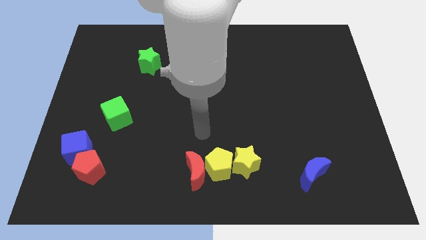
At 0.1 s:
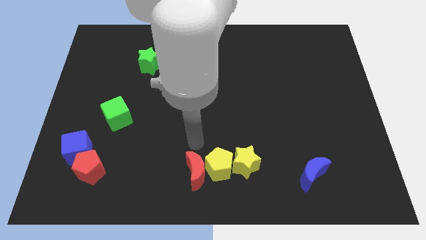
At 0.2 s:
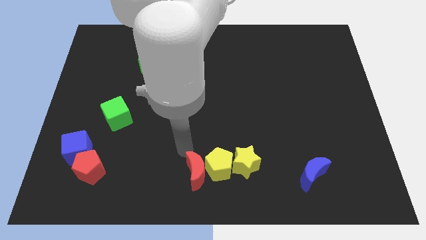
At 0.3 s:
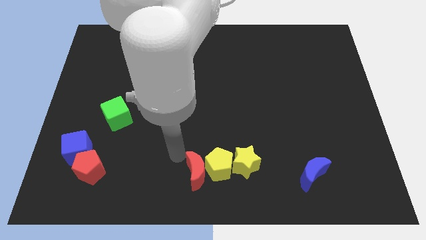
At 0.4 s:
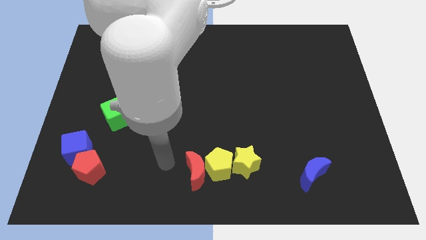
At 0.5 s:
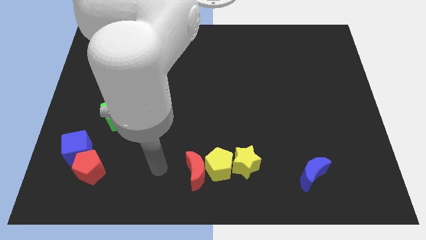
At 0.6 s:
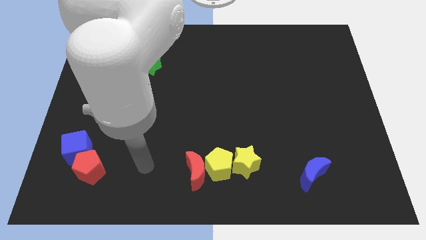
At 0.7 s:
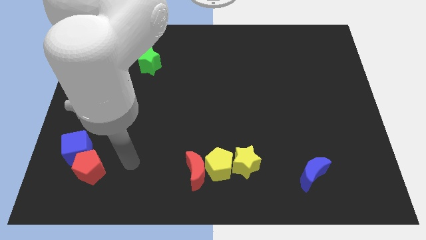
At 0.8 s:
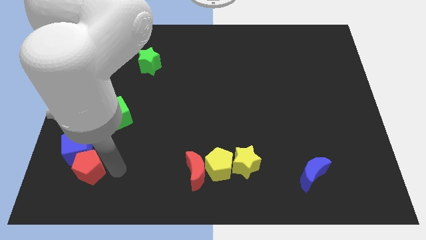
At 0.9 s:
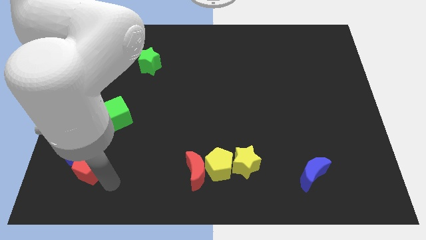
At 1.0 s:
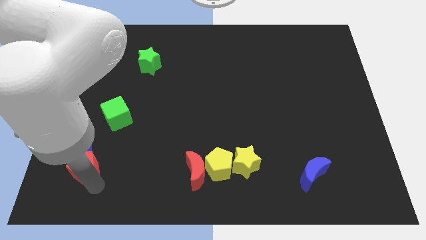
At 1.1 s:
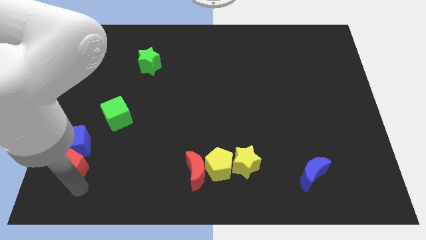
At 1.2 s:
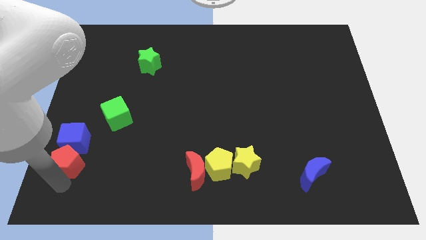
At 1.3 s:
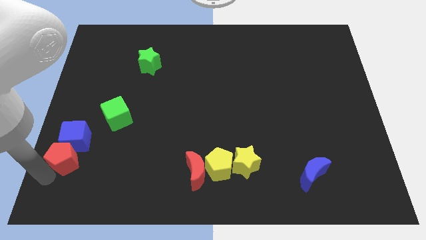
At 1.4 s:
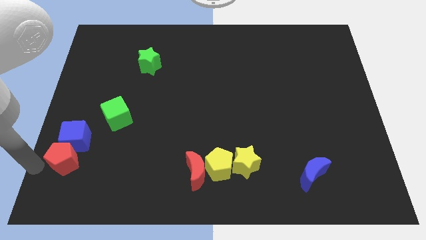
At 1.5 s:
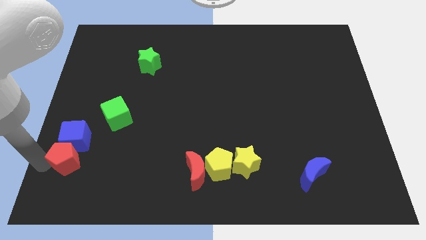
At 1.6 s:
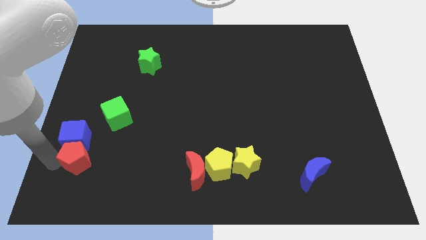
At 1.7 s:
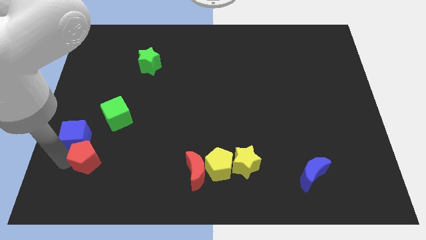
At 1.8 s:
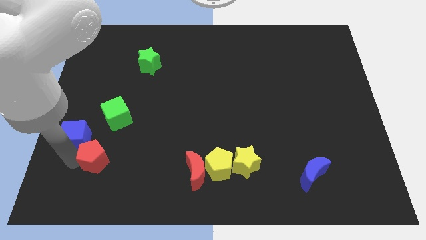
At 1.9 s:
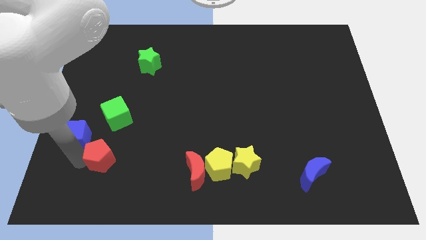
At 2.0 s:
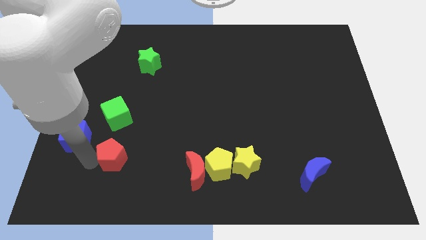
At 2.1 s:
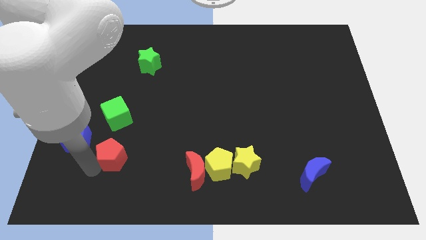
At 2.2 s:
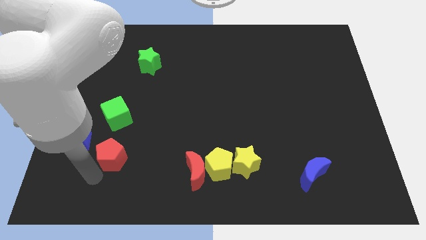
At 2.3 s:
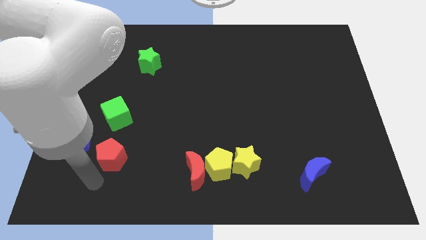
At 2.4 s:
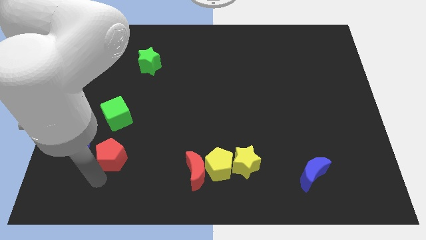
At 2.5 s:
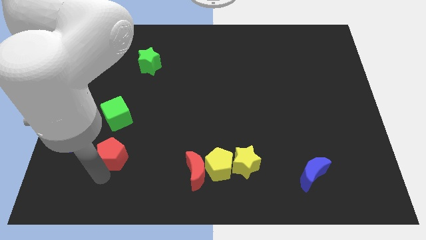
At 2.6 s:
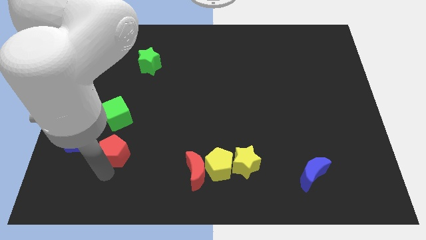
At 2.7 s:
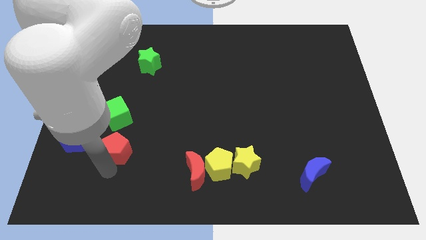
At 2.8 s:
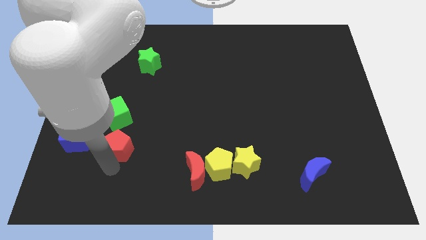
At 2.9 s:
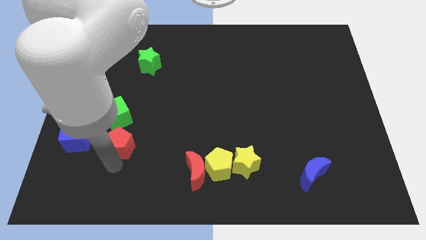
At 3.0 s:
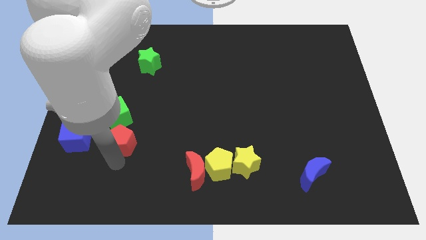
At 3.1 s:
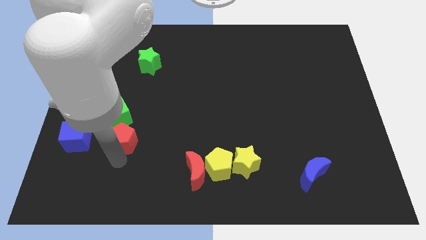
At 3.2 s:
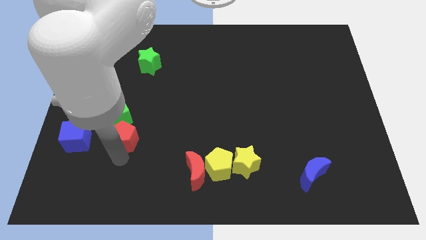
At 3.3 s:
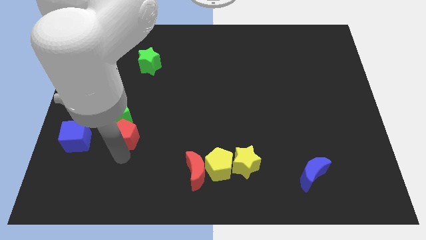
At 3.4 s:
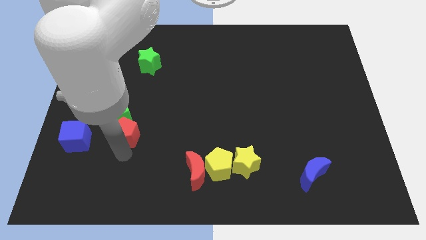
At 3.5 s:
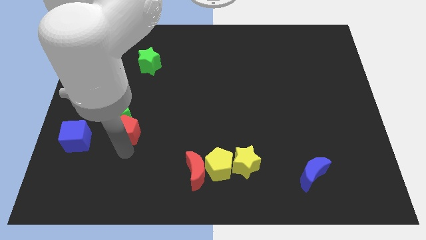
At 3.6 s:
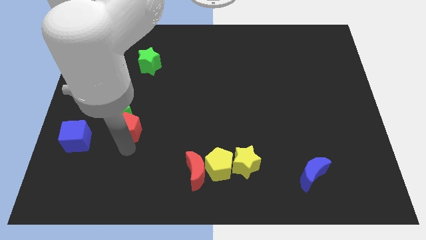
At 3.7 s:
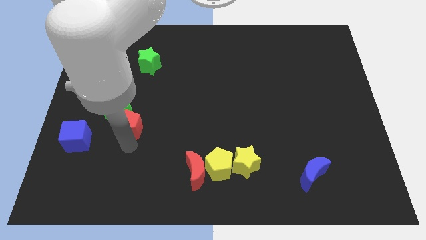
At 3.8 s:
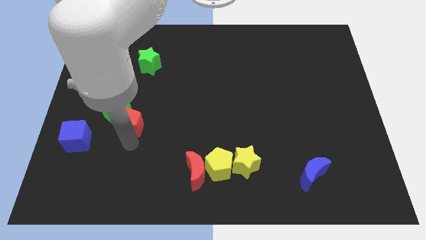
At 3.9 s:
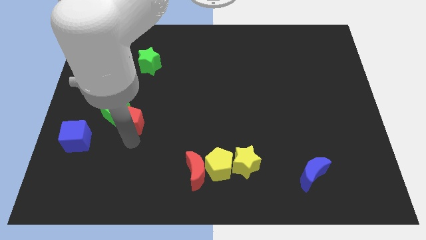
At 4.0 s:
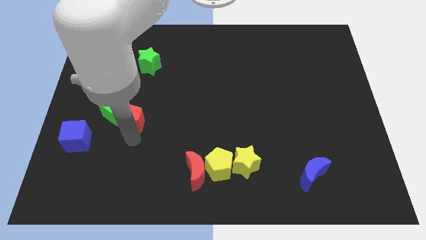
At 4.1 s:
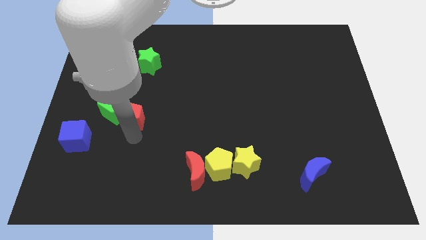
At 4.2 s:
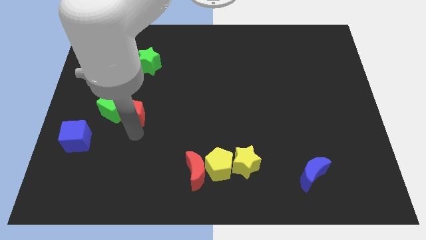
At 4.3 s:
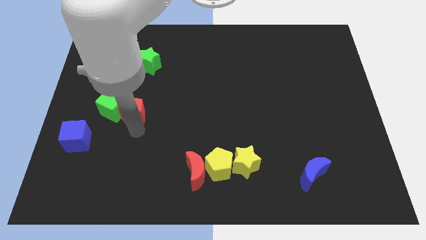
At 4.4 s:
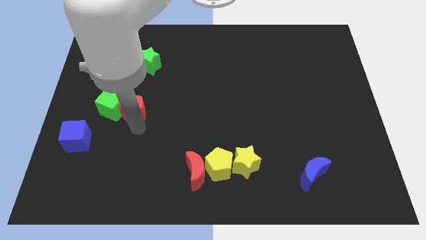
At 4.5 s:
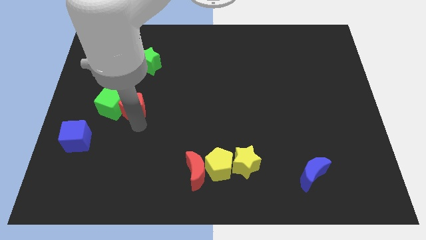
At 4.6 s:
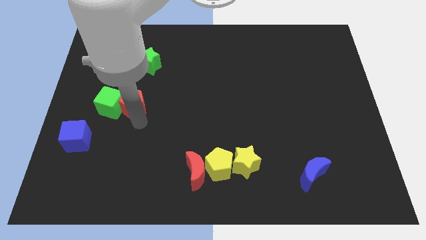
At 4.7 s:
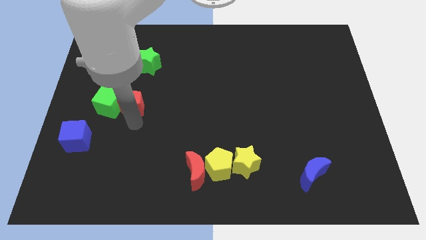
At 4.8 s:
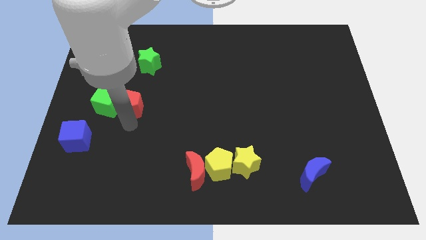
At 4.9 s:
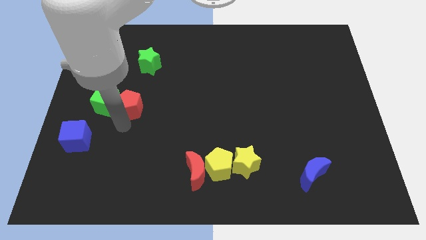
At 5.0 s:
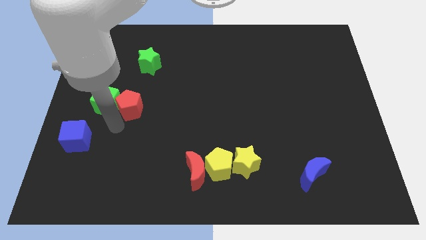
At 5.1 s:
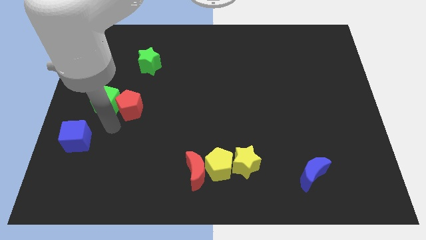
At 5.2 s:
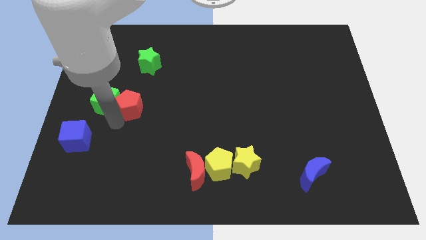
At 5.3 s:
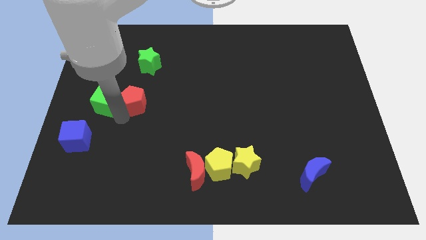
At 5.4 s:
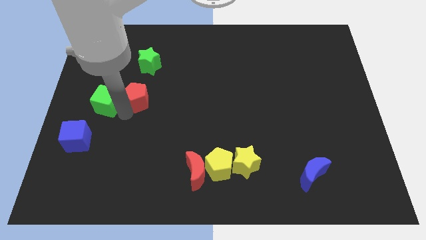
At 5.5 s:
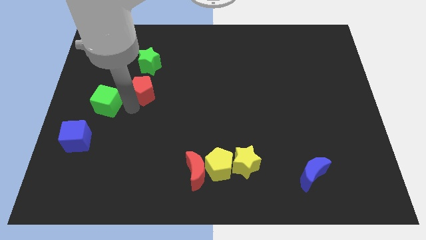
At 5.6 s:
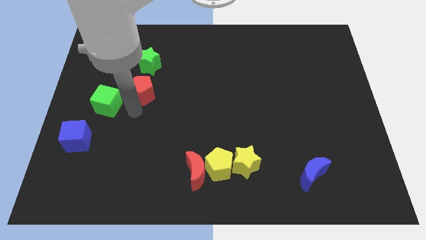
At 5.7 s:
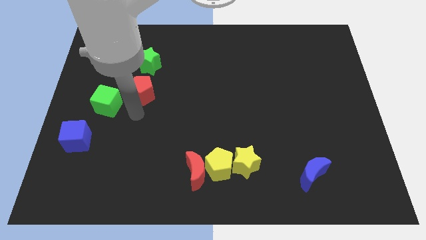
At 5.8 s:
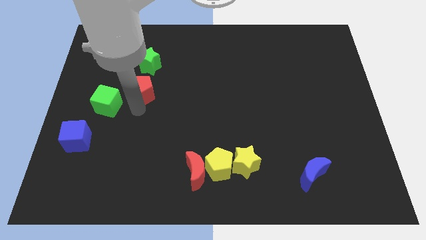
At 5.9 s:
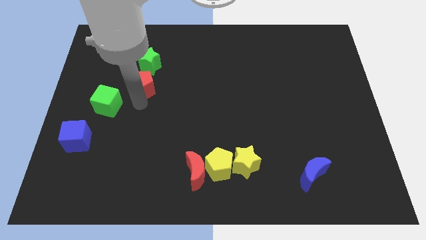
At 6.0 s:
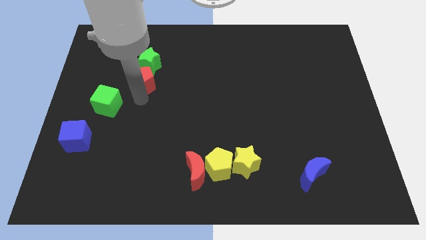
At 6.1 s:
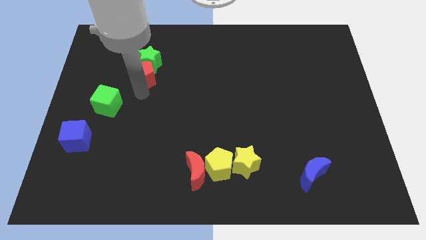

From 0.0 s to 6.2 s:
push the red pentagon to the green star

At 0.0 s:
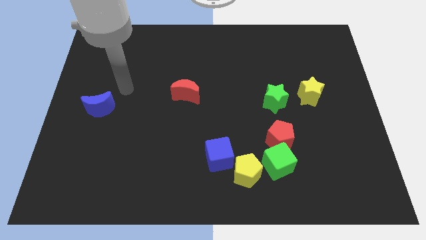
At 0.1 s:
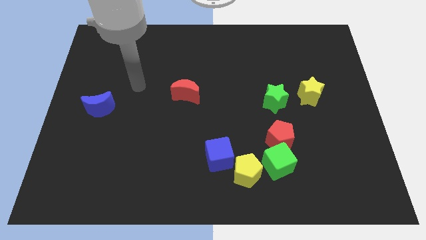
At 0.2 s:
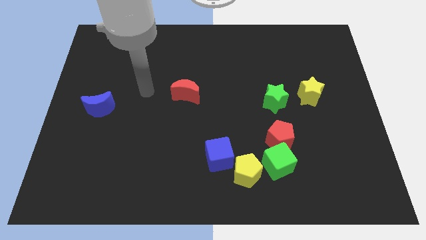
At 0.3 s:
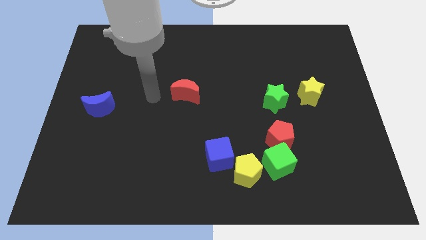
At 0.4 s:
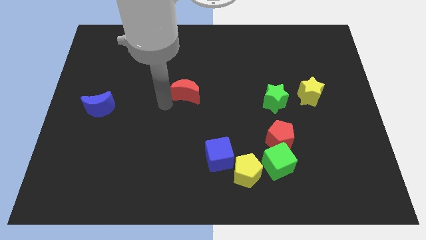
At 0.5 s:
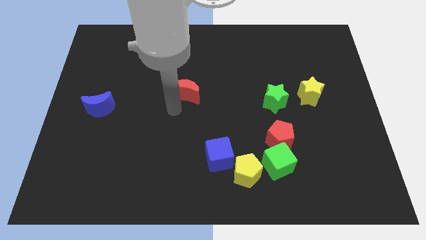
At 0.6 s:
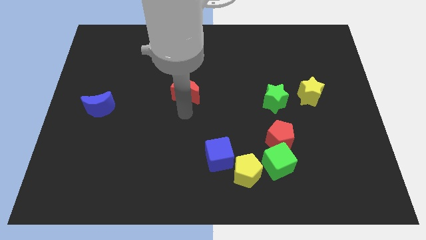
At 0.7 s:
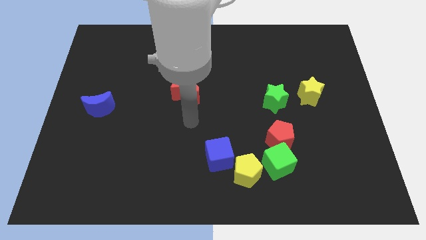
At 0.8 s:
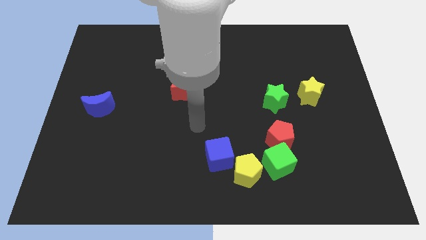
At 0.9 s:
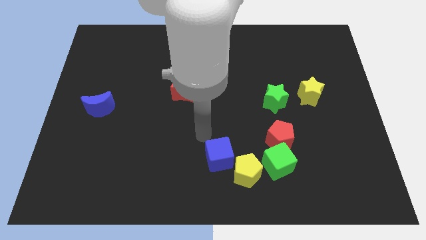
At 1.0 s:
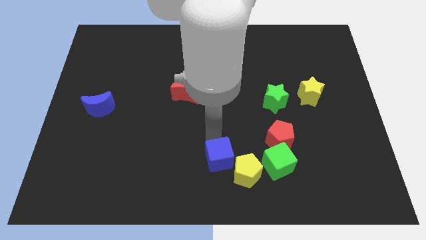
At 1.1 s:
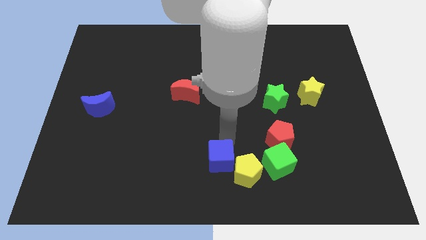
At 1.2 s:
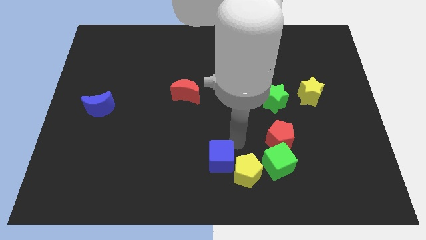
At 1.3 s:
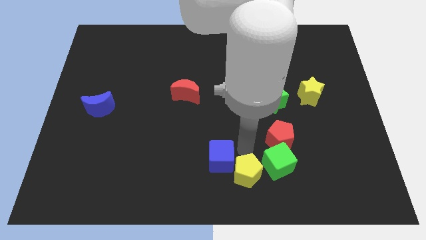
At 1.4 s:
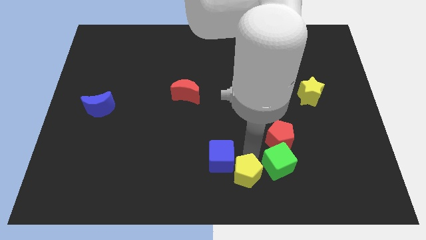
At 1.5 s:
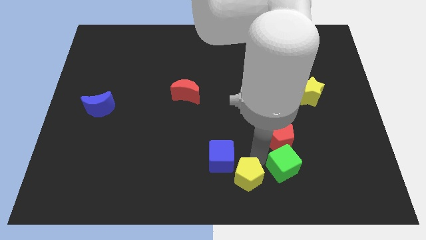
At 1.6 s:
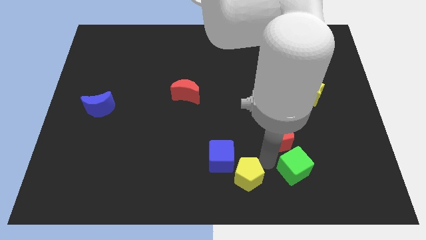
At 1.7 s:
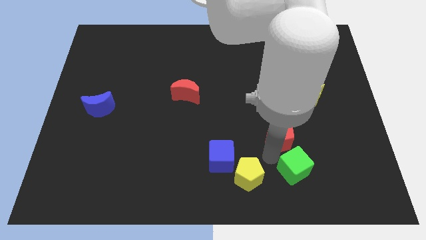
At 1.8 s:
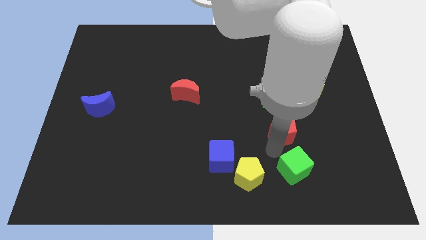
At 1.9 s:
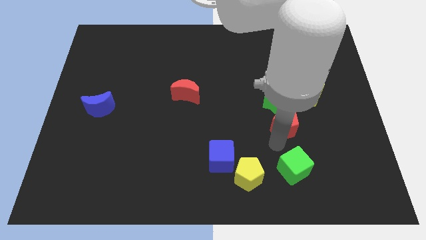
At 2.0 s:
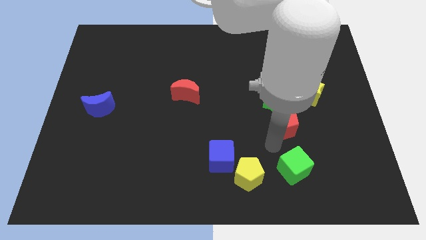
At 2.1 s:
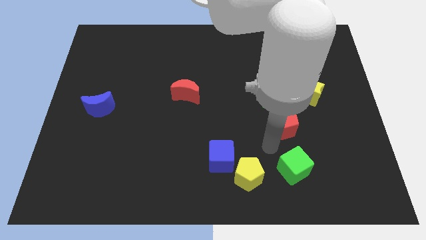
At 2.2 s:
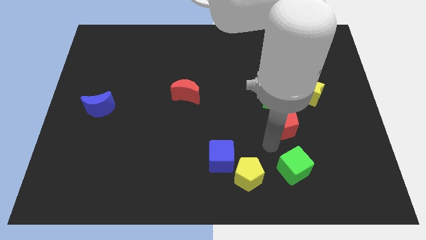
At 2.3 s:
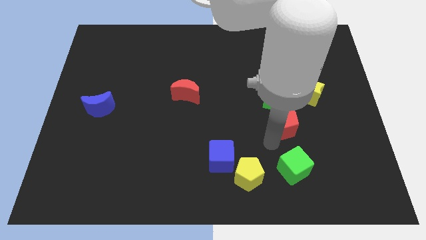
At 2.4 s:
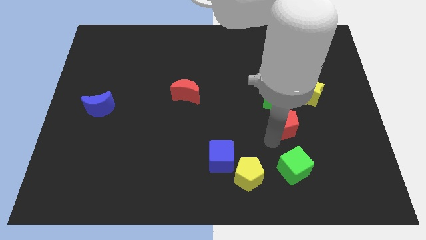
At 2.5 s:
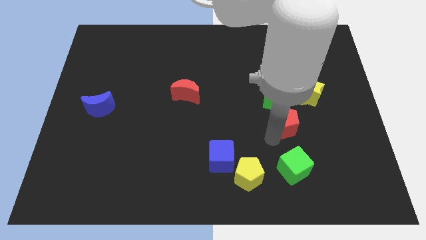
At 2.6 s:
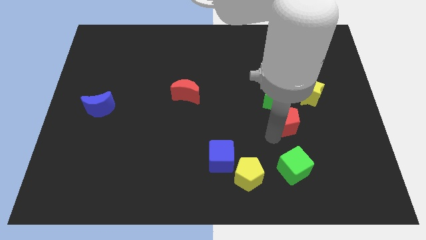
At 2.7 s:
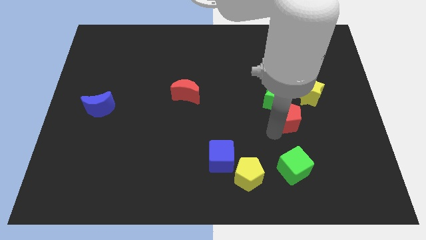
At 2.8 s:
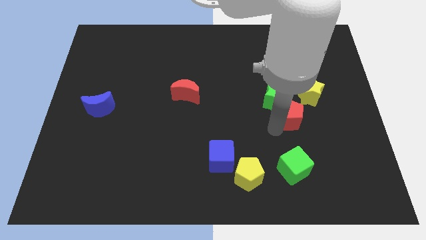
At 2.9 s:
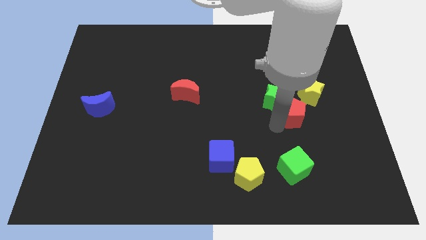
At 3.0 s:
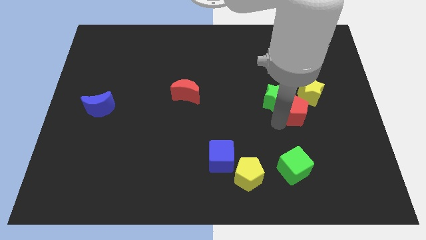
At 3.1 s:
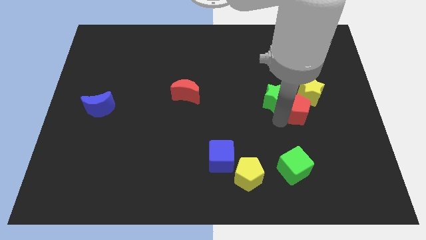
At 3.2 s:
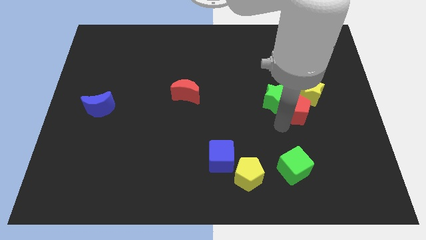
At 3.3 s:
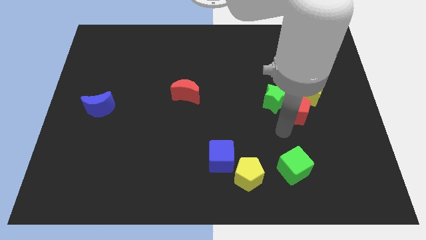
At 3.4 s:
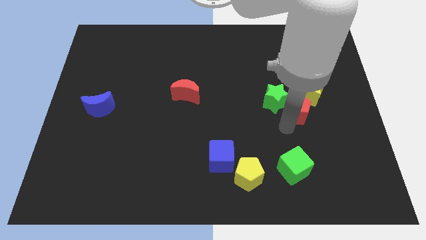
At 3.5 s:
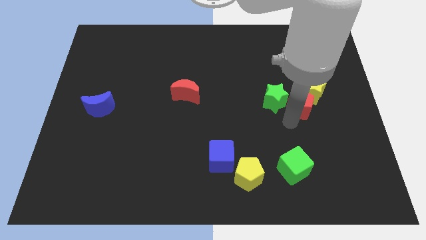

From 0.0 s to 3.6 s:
move the red pentagon to the yellow star
